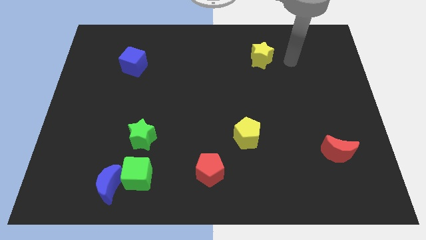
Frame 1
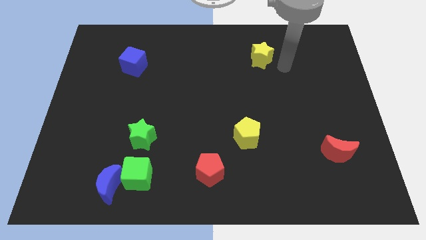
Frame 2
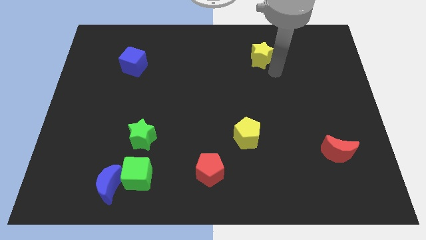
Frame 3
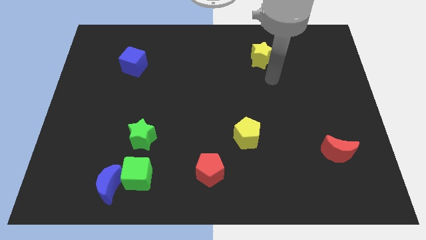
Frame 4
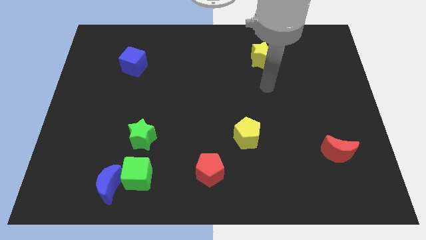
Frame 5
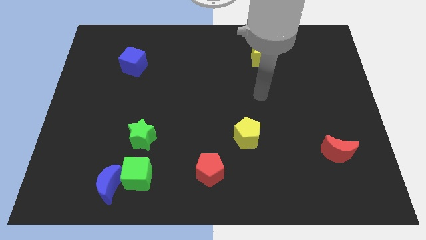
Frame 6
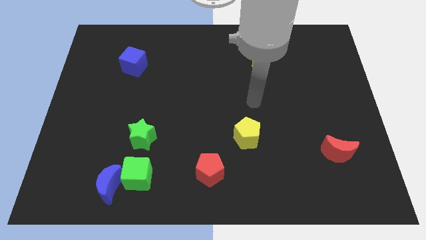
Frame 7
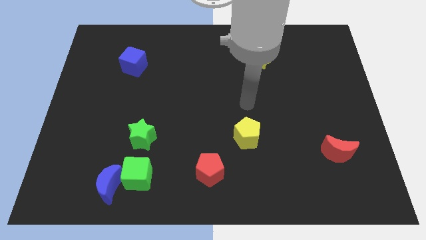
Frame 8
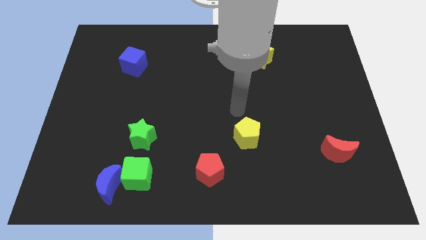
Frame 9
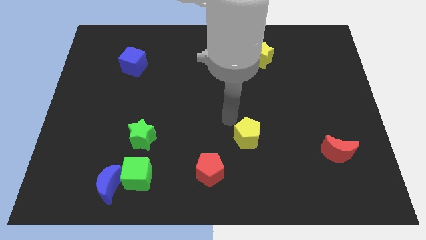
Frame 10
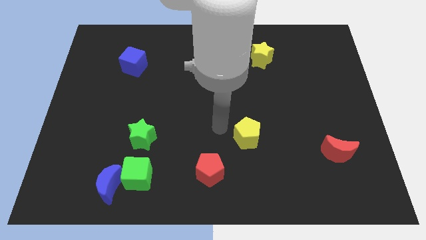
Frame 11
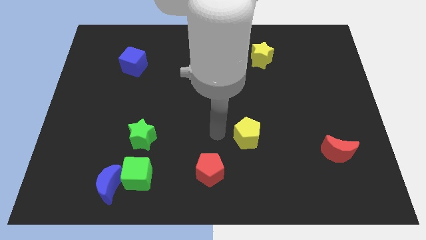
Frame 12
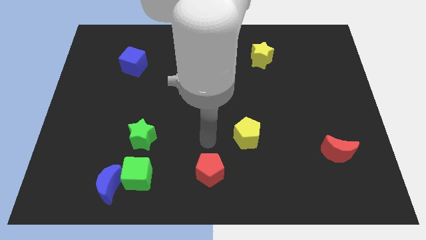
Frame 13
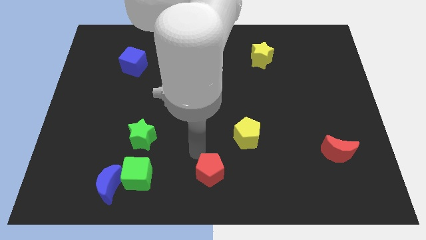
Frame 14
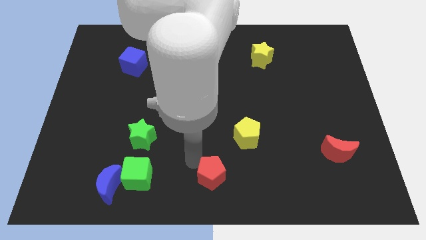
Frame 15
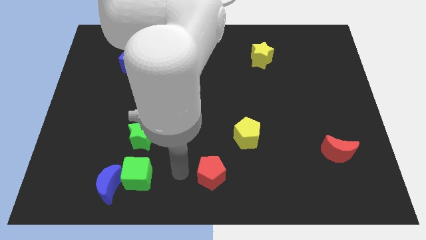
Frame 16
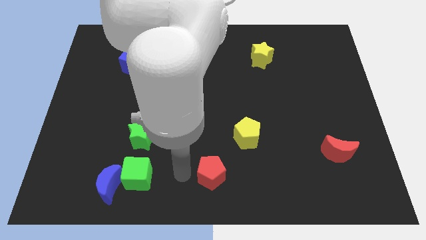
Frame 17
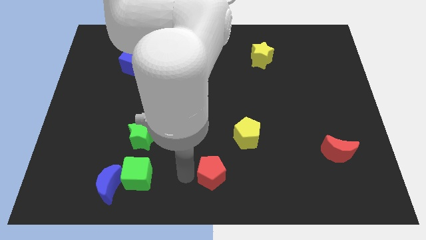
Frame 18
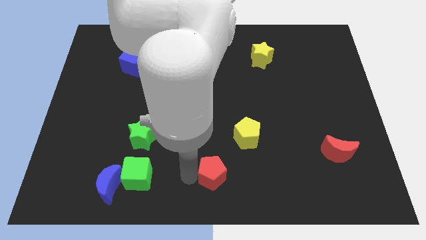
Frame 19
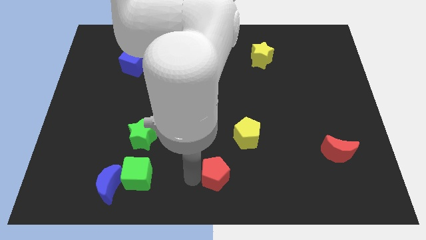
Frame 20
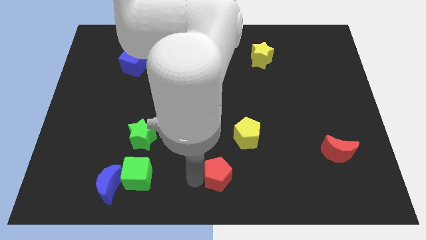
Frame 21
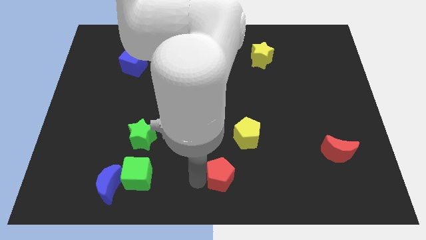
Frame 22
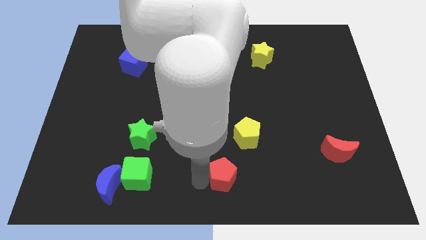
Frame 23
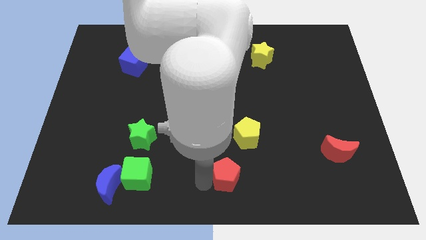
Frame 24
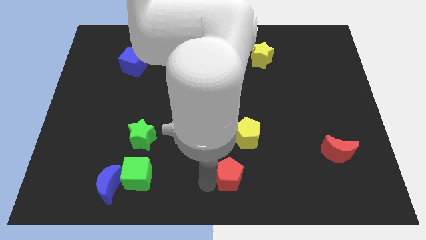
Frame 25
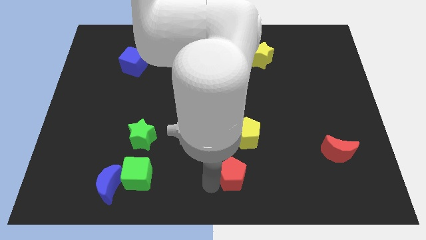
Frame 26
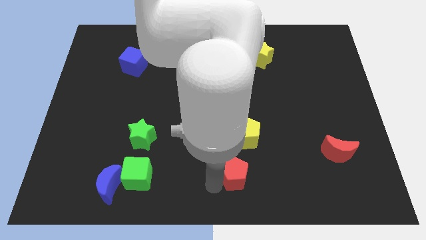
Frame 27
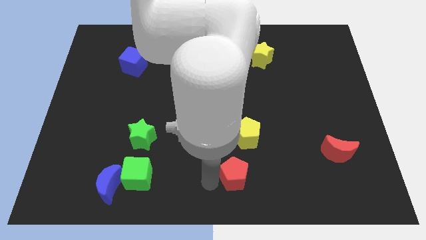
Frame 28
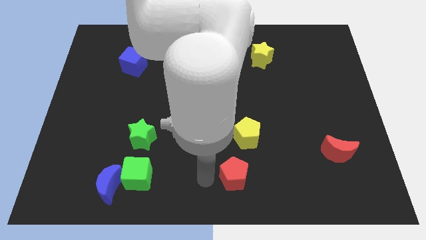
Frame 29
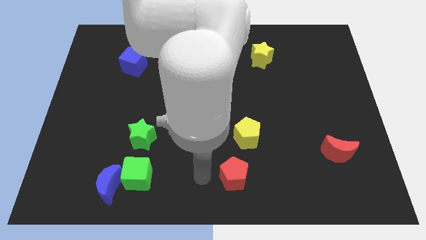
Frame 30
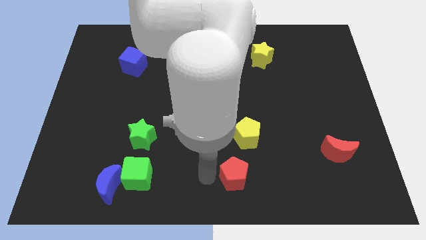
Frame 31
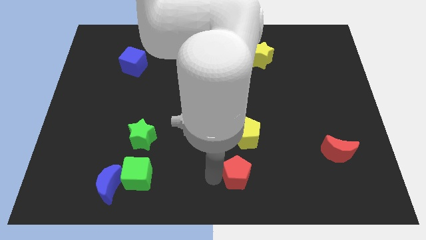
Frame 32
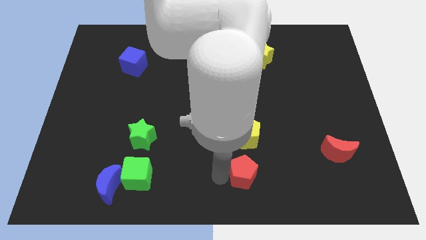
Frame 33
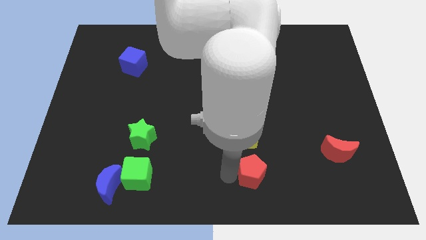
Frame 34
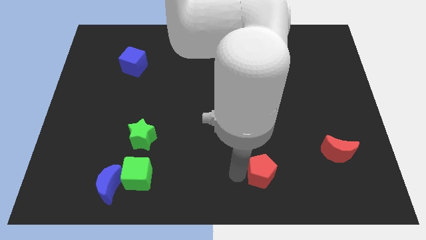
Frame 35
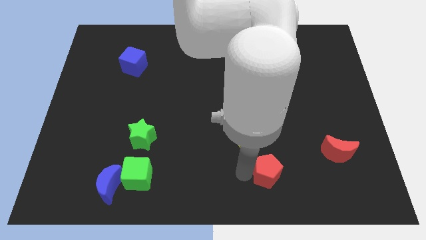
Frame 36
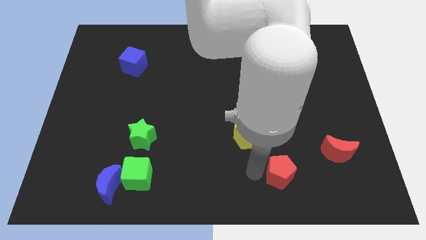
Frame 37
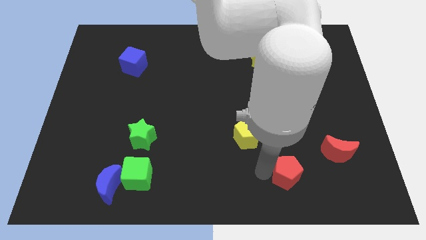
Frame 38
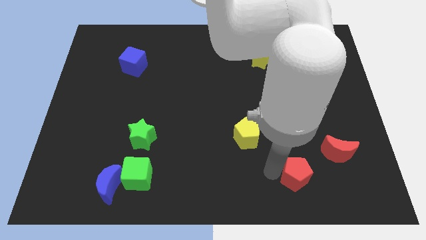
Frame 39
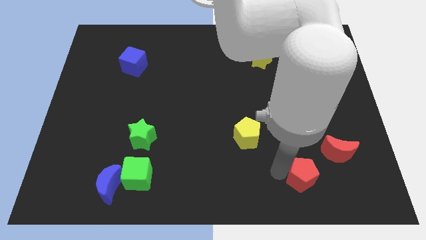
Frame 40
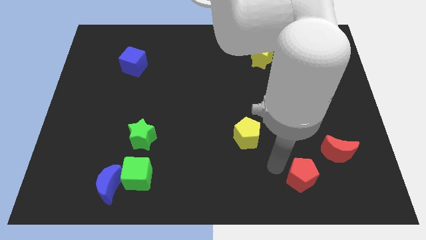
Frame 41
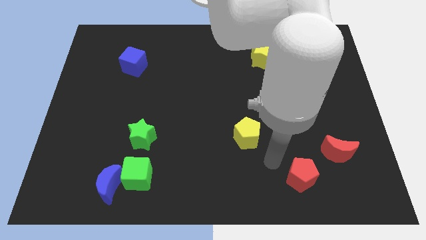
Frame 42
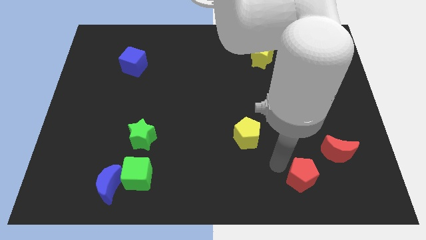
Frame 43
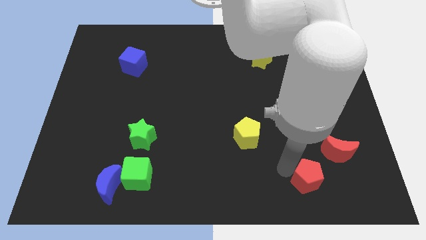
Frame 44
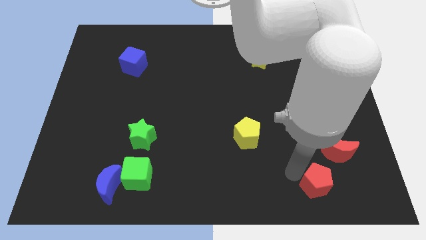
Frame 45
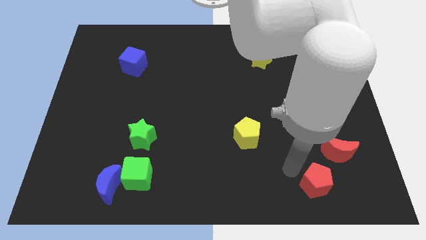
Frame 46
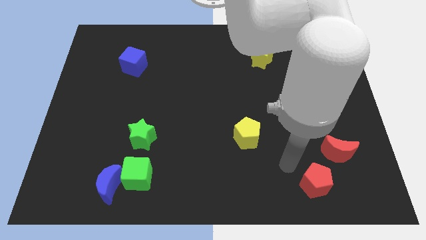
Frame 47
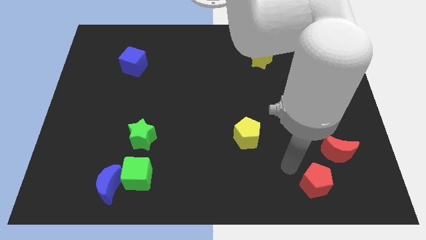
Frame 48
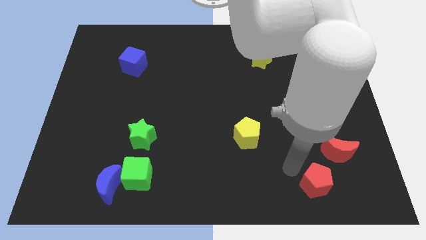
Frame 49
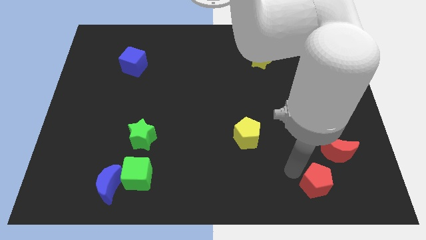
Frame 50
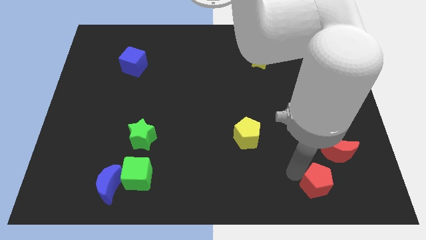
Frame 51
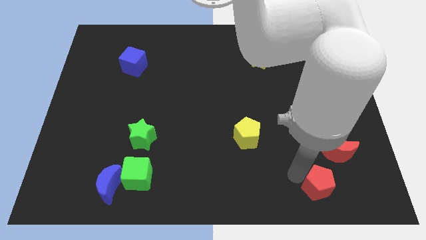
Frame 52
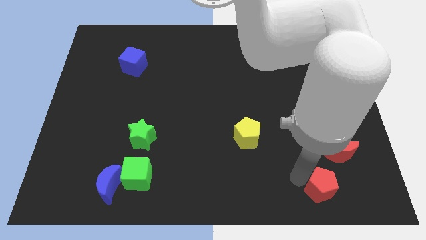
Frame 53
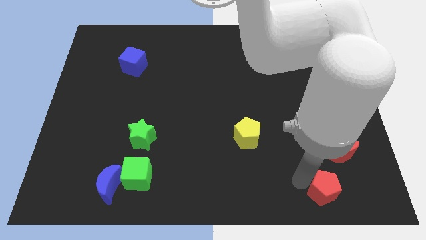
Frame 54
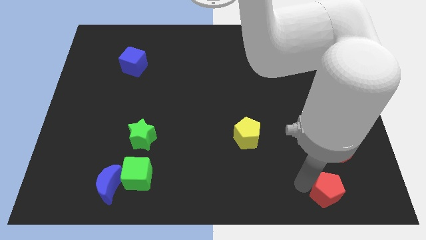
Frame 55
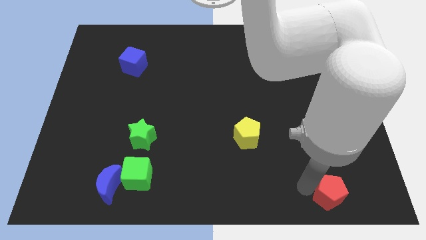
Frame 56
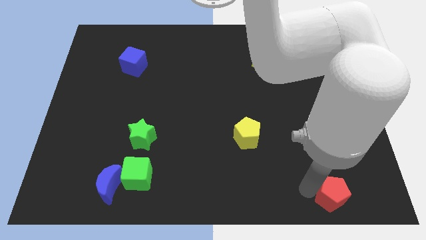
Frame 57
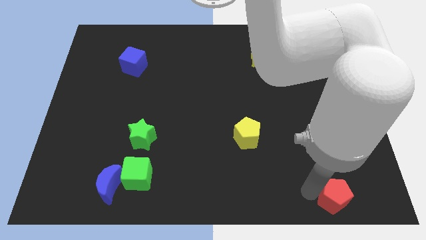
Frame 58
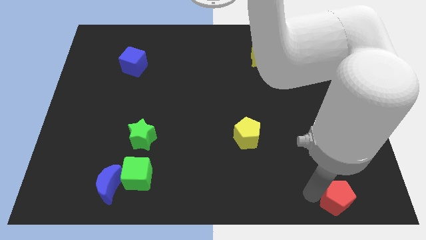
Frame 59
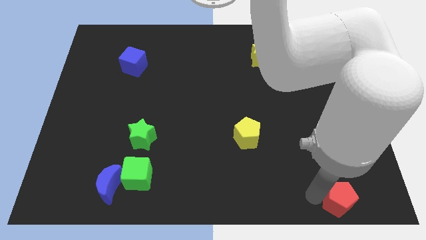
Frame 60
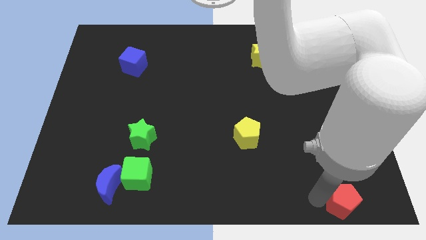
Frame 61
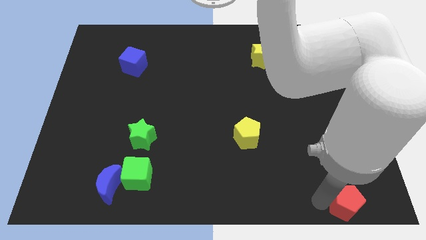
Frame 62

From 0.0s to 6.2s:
move the red pentagon to the bottom right corner
